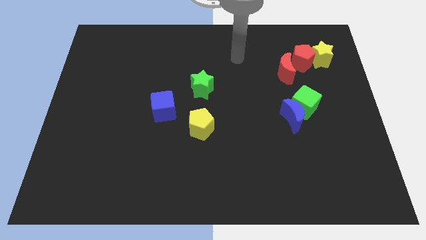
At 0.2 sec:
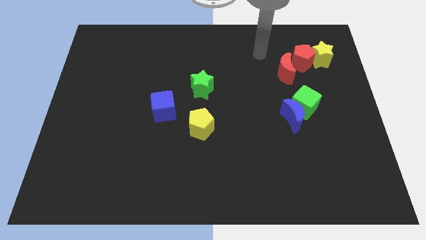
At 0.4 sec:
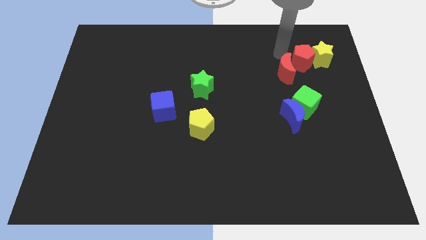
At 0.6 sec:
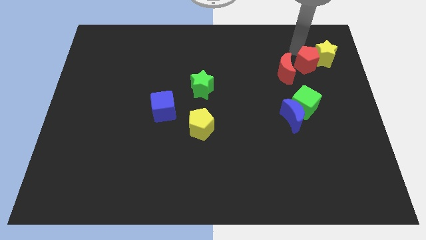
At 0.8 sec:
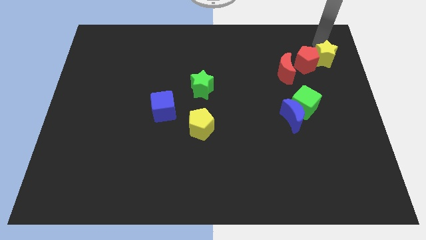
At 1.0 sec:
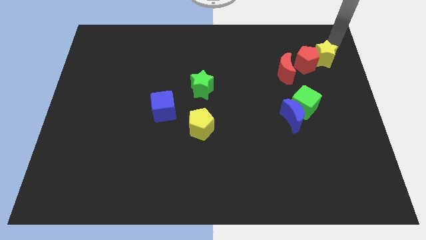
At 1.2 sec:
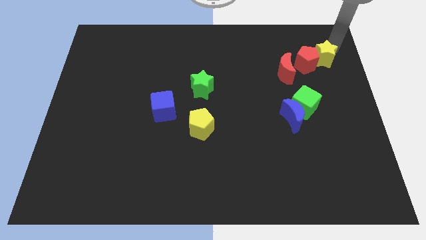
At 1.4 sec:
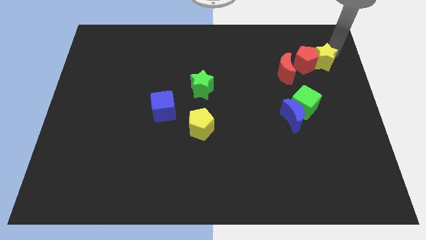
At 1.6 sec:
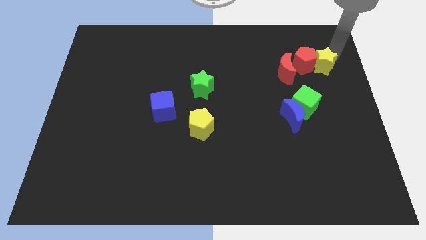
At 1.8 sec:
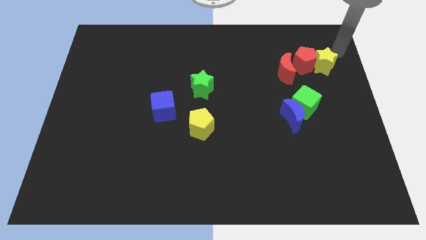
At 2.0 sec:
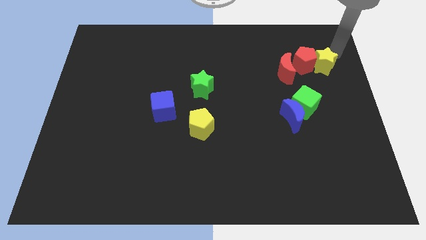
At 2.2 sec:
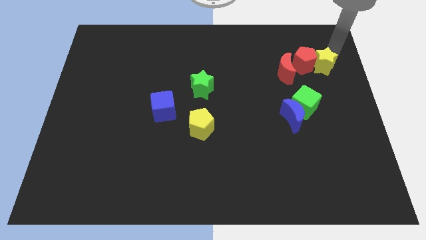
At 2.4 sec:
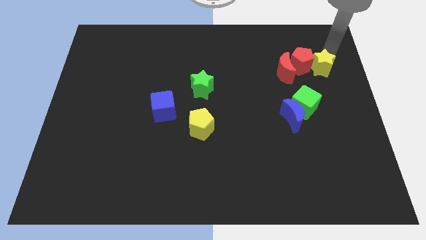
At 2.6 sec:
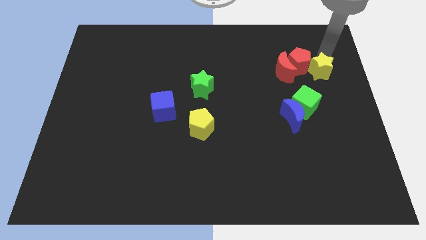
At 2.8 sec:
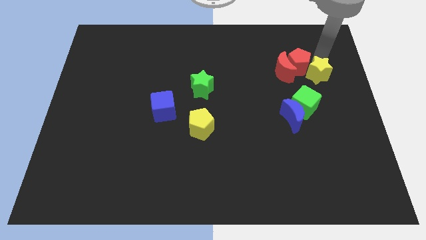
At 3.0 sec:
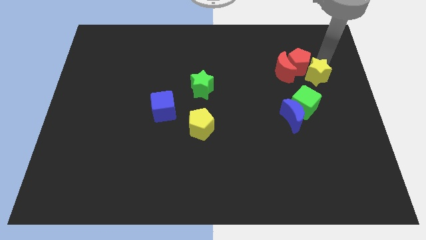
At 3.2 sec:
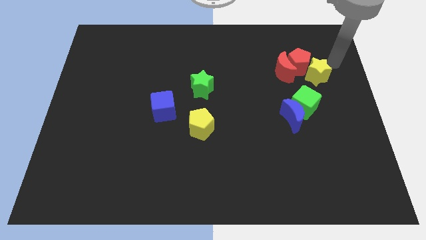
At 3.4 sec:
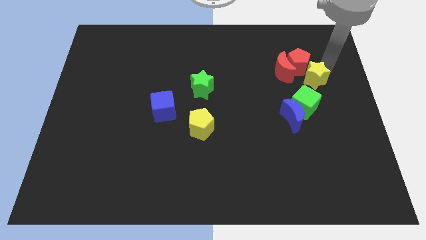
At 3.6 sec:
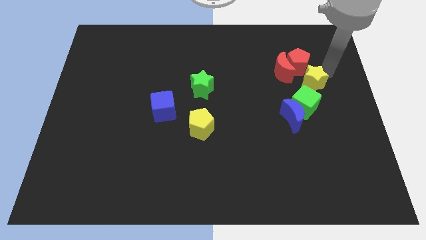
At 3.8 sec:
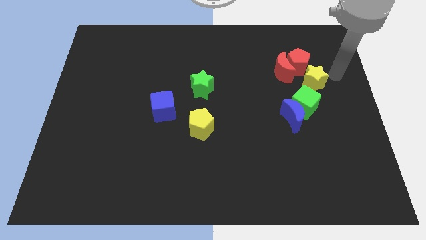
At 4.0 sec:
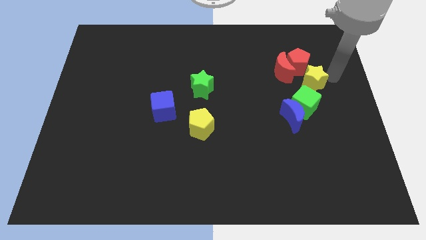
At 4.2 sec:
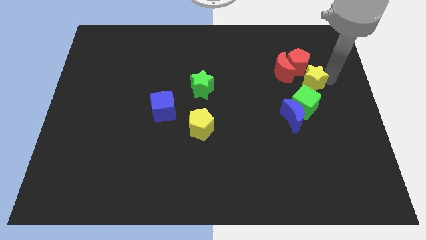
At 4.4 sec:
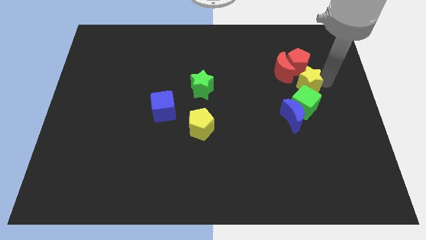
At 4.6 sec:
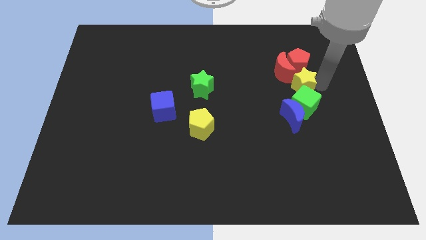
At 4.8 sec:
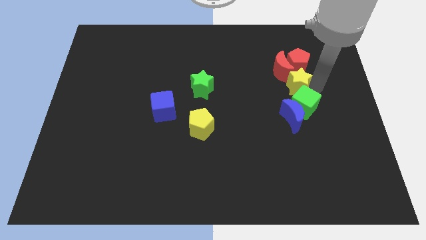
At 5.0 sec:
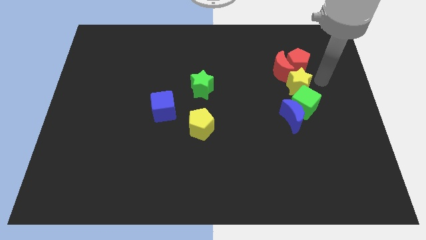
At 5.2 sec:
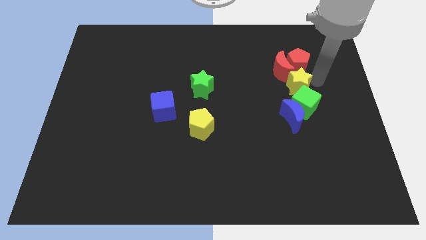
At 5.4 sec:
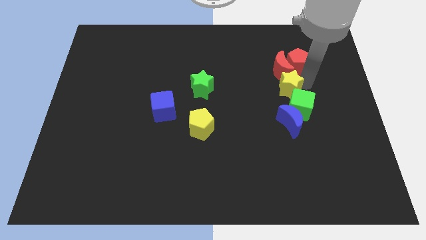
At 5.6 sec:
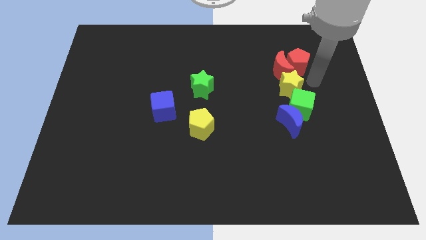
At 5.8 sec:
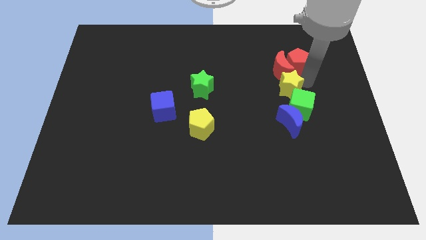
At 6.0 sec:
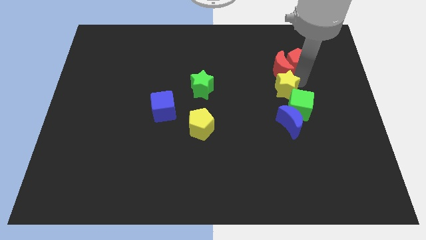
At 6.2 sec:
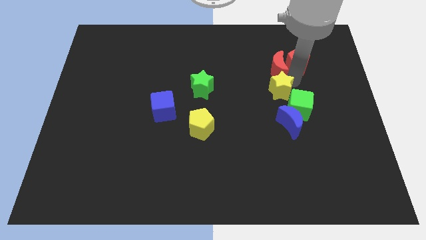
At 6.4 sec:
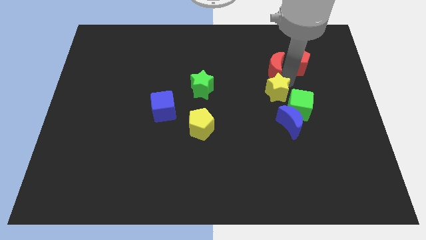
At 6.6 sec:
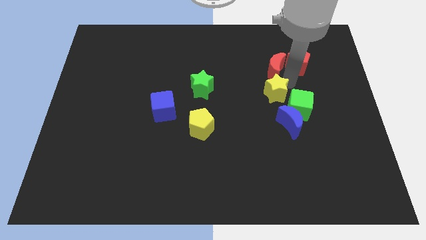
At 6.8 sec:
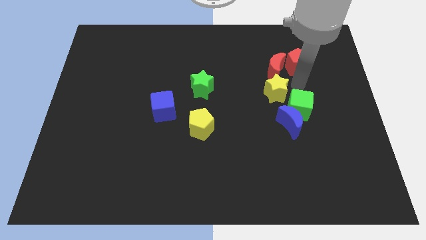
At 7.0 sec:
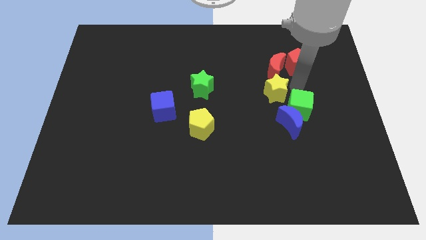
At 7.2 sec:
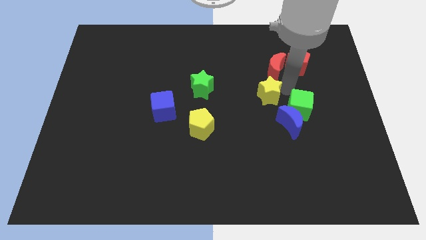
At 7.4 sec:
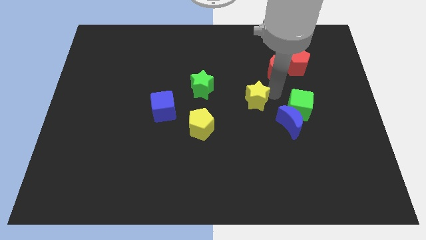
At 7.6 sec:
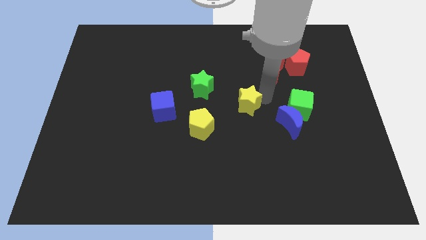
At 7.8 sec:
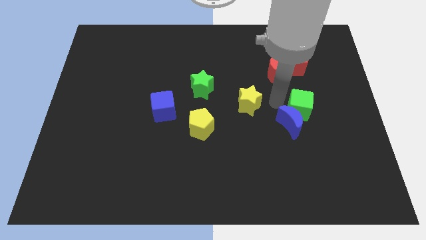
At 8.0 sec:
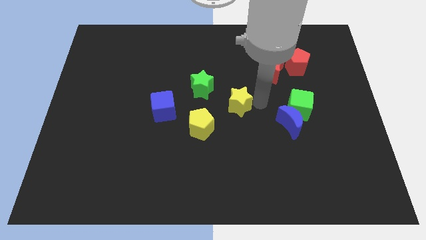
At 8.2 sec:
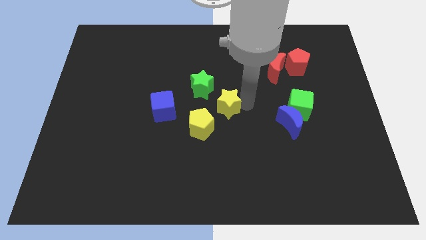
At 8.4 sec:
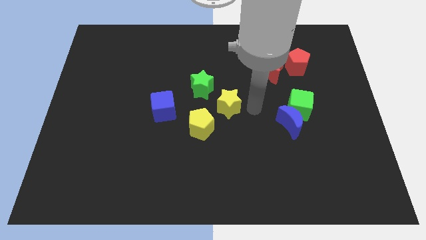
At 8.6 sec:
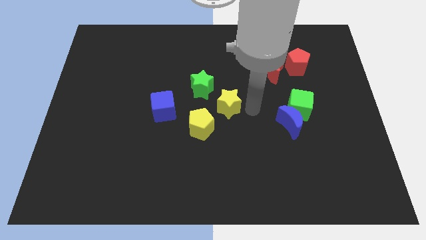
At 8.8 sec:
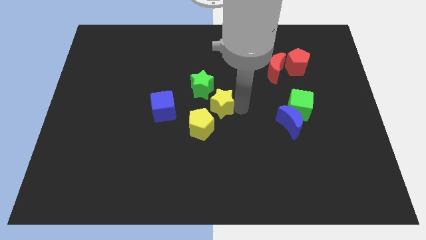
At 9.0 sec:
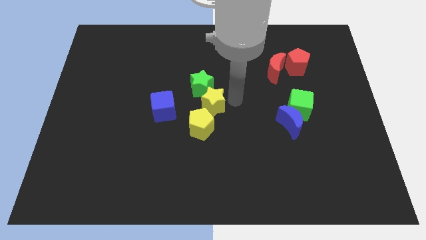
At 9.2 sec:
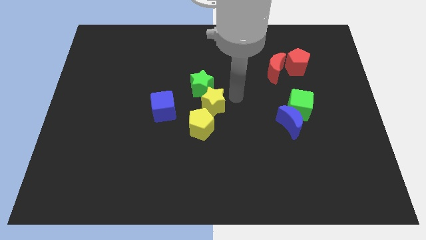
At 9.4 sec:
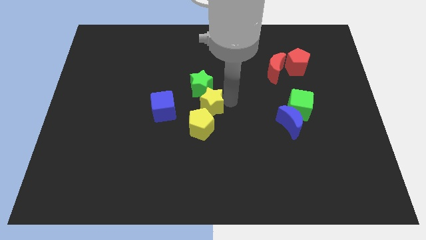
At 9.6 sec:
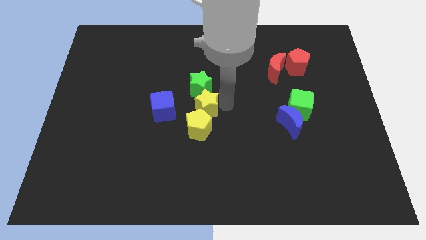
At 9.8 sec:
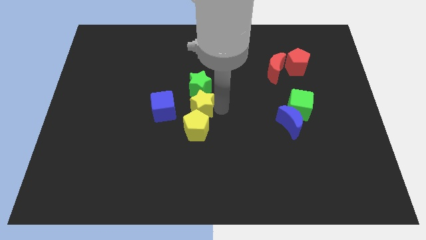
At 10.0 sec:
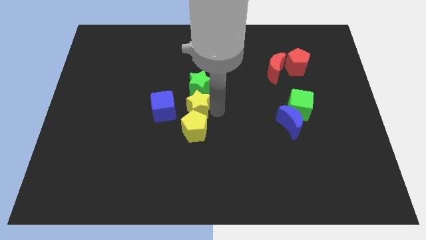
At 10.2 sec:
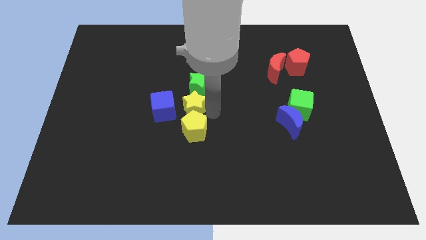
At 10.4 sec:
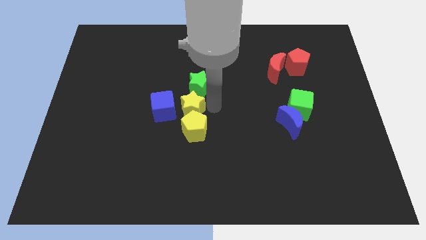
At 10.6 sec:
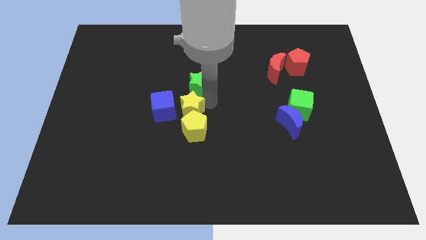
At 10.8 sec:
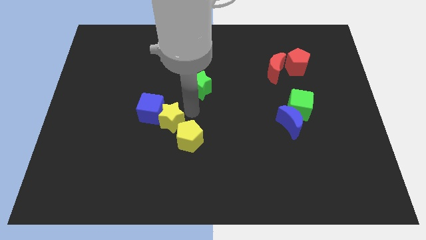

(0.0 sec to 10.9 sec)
put the yellow star to the left side of the yellow pentagon

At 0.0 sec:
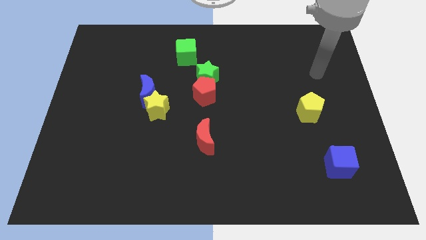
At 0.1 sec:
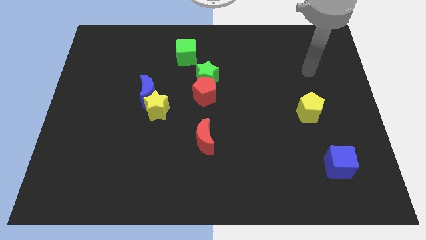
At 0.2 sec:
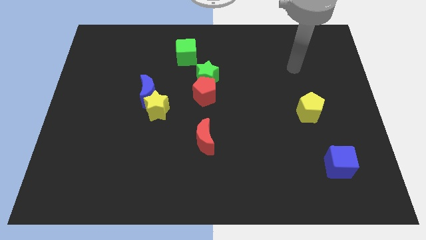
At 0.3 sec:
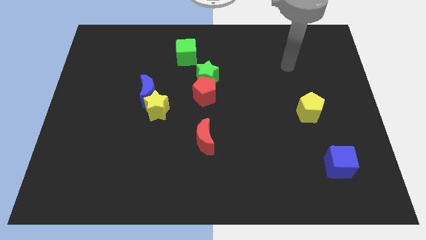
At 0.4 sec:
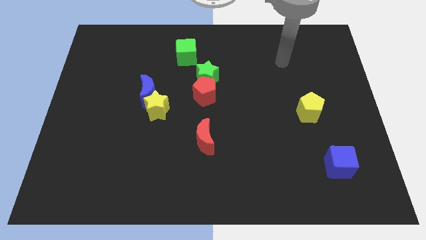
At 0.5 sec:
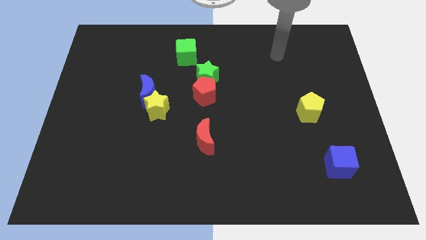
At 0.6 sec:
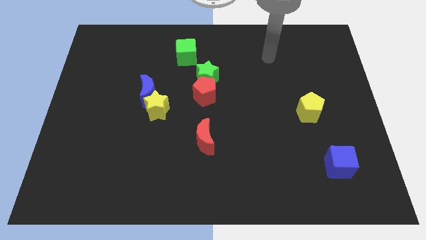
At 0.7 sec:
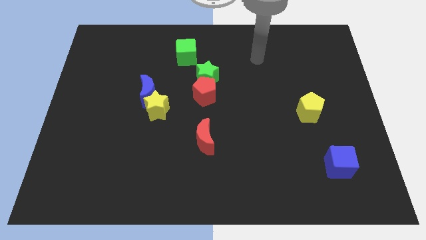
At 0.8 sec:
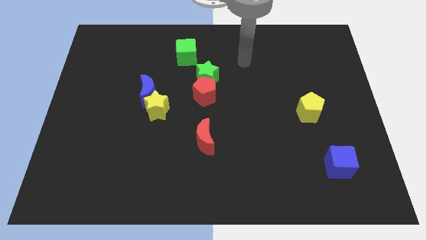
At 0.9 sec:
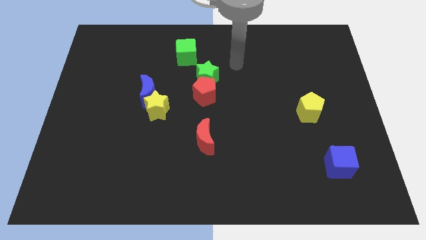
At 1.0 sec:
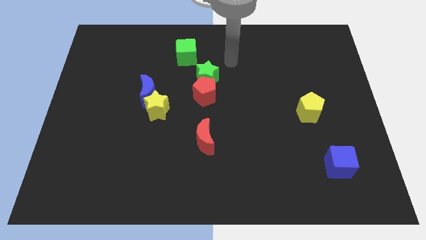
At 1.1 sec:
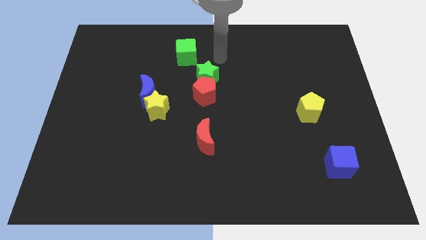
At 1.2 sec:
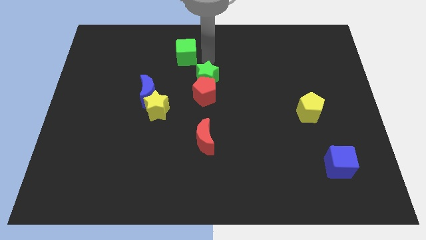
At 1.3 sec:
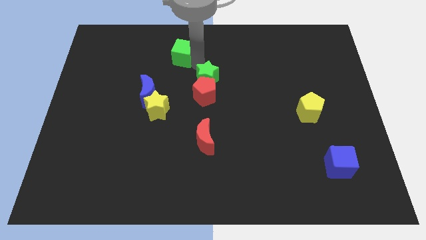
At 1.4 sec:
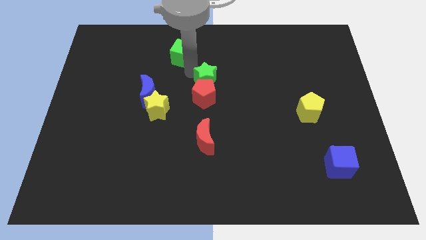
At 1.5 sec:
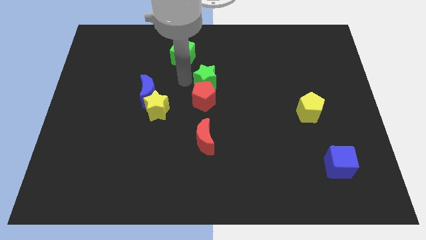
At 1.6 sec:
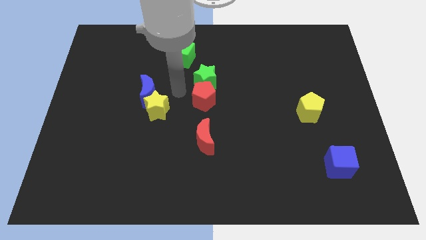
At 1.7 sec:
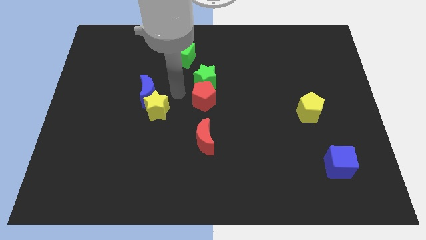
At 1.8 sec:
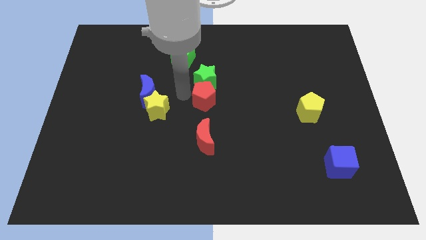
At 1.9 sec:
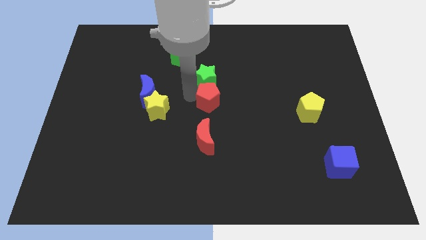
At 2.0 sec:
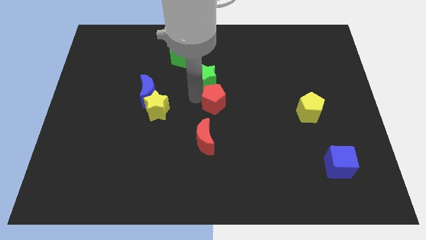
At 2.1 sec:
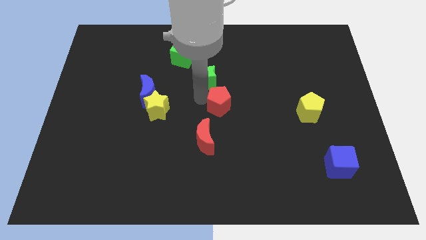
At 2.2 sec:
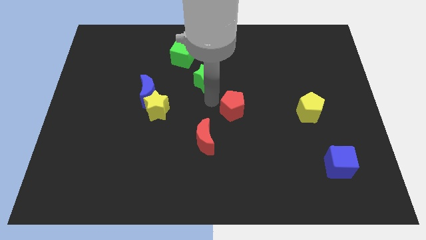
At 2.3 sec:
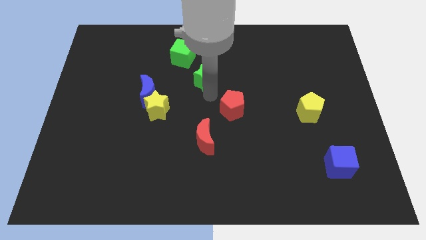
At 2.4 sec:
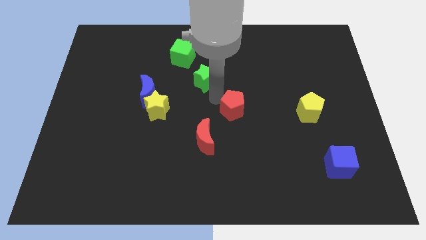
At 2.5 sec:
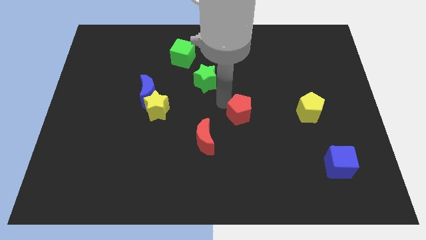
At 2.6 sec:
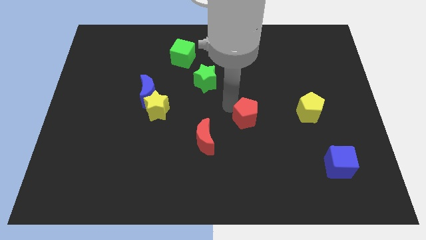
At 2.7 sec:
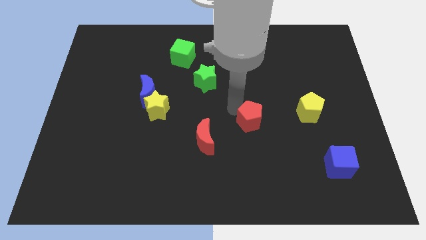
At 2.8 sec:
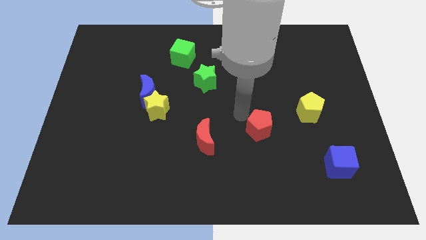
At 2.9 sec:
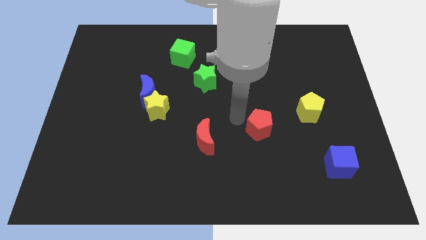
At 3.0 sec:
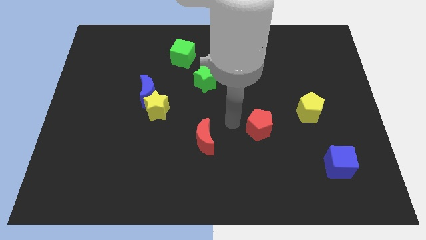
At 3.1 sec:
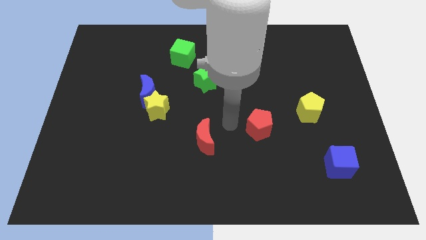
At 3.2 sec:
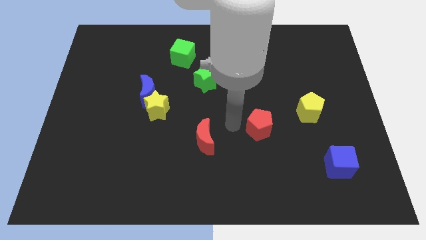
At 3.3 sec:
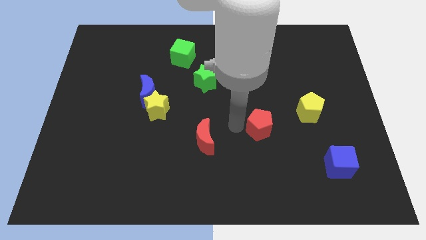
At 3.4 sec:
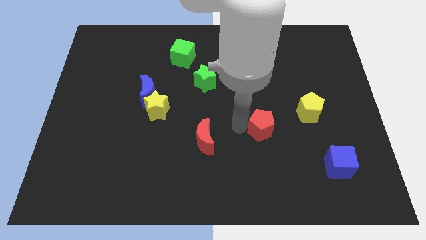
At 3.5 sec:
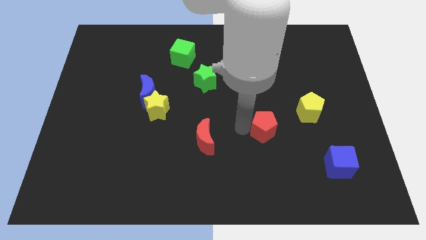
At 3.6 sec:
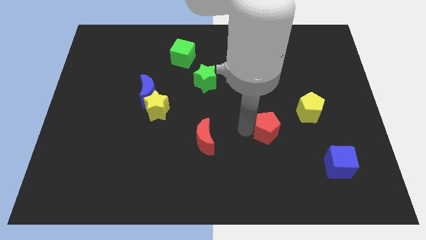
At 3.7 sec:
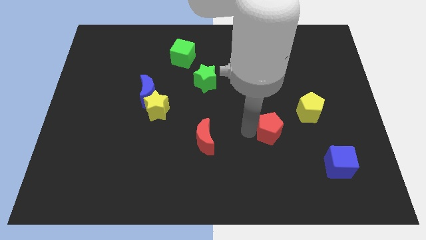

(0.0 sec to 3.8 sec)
move the red pentagon to the bottom left side of the yellow pentagon
